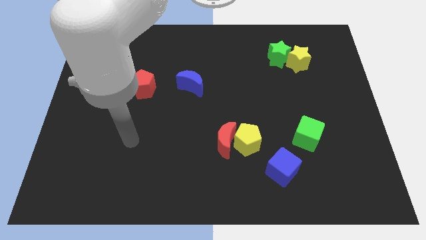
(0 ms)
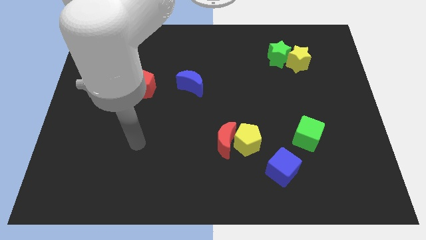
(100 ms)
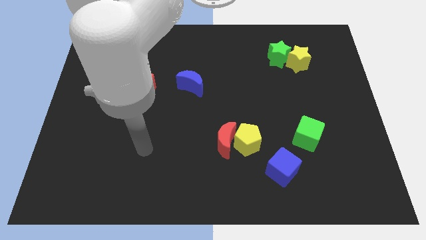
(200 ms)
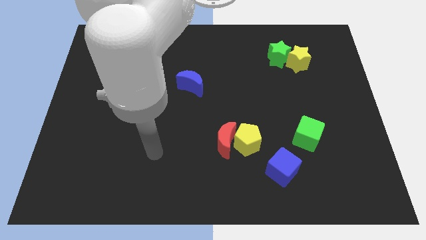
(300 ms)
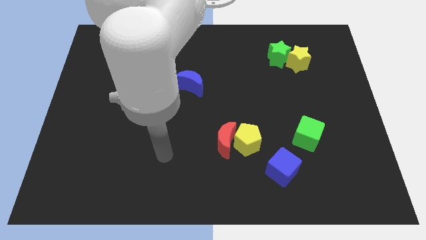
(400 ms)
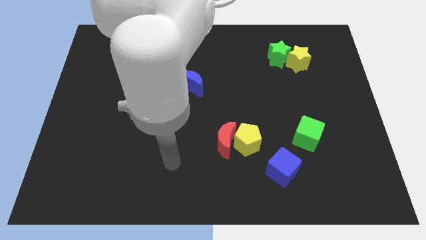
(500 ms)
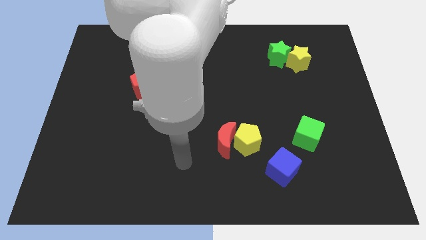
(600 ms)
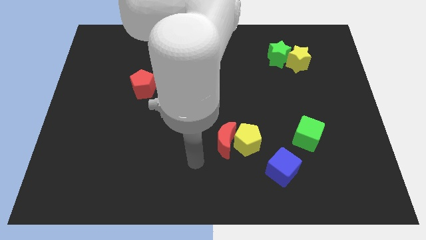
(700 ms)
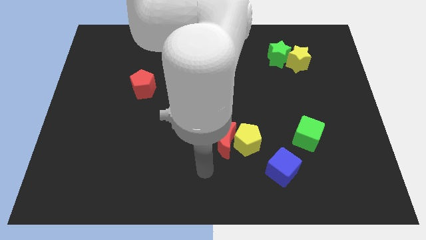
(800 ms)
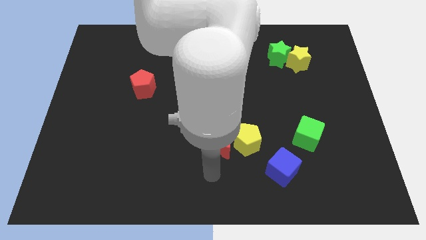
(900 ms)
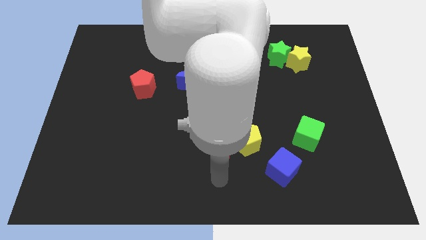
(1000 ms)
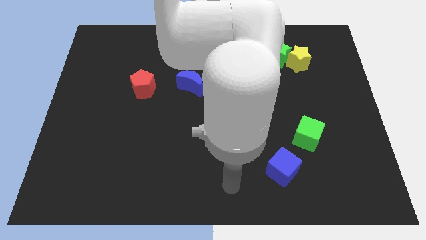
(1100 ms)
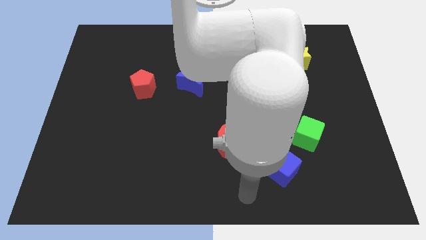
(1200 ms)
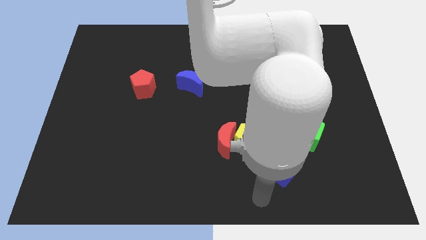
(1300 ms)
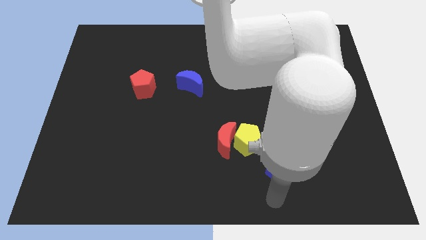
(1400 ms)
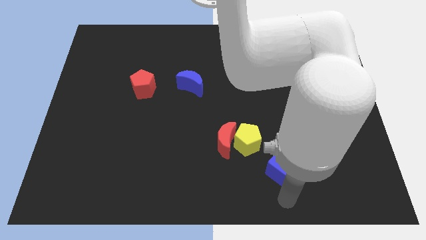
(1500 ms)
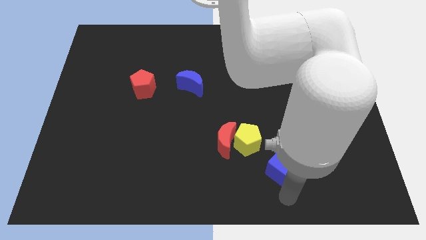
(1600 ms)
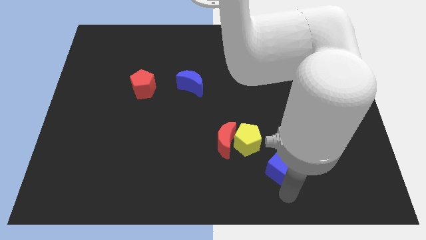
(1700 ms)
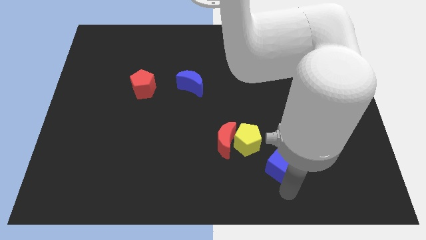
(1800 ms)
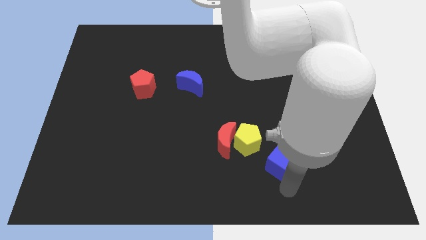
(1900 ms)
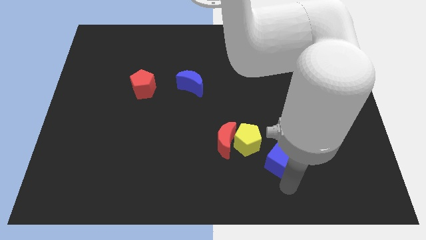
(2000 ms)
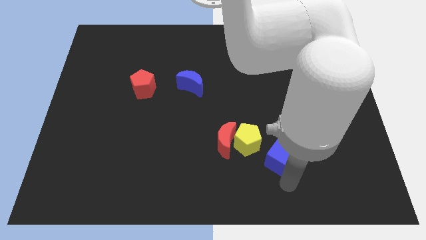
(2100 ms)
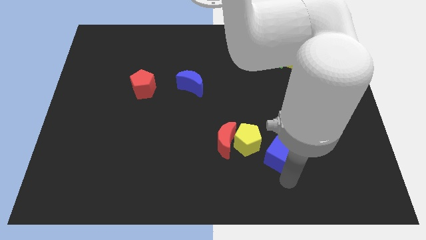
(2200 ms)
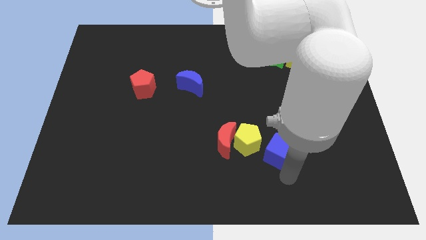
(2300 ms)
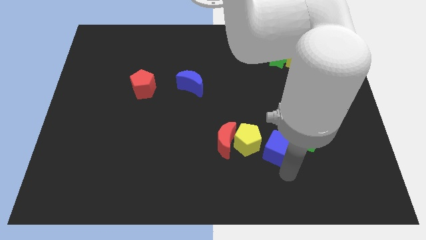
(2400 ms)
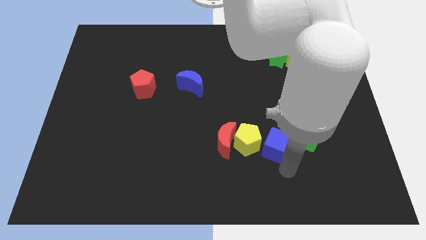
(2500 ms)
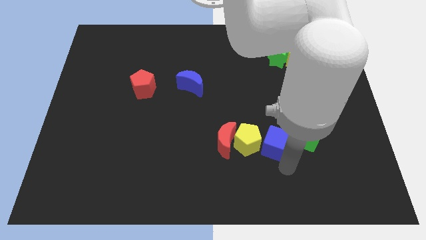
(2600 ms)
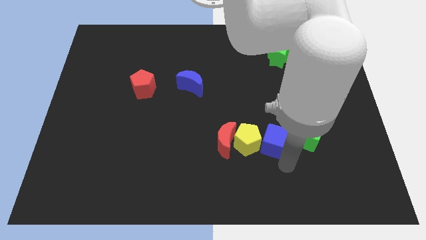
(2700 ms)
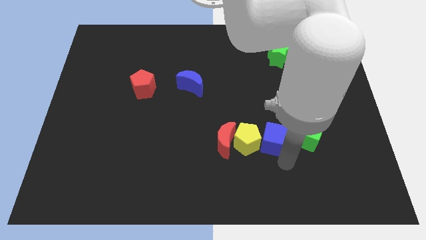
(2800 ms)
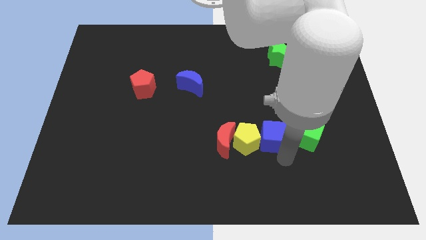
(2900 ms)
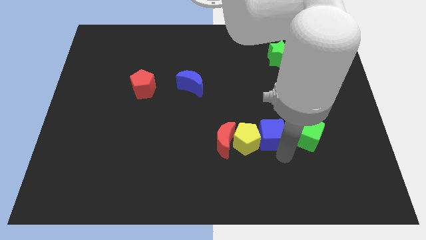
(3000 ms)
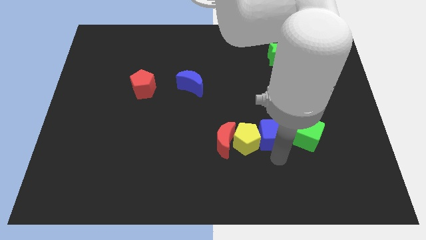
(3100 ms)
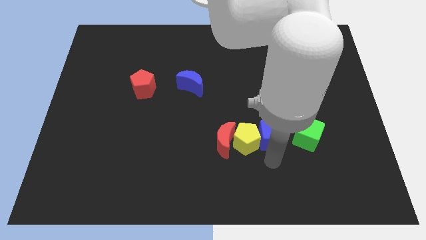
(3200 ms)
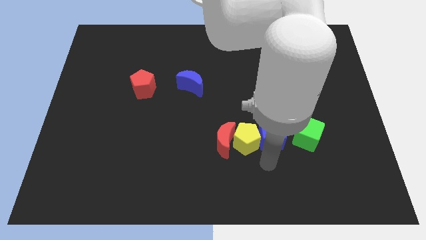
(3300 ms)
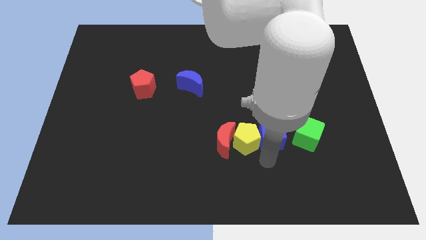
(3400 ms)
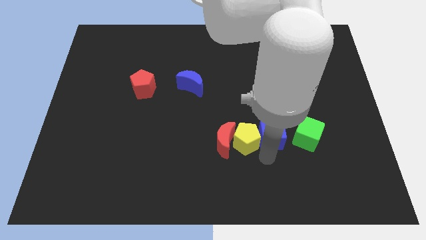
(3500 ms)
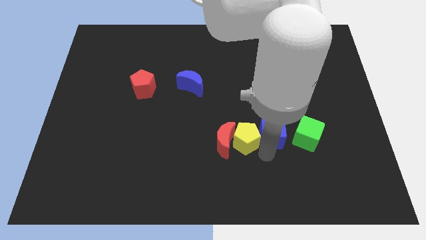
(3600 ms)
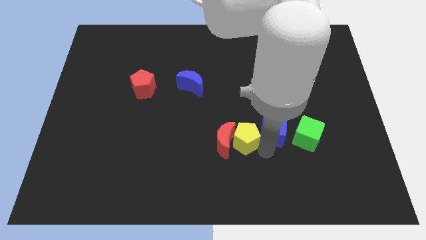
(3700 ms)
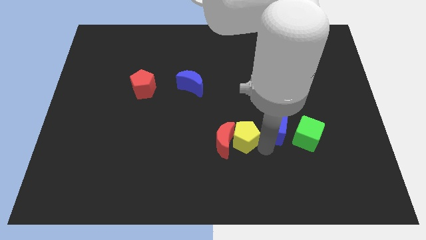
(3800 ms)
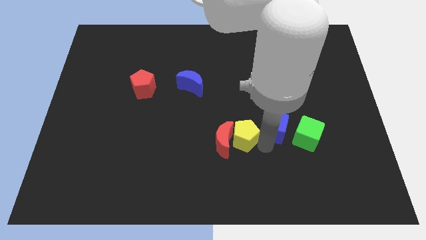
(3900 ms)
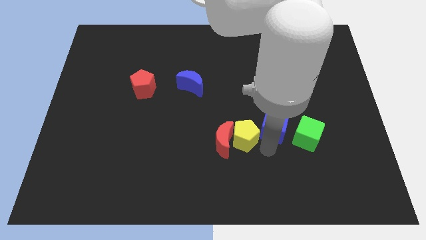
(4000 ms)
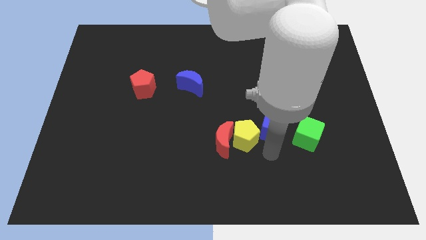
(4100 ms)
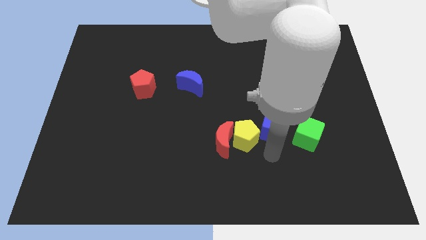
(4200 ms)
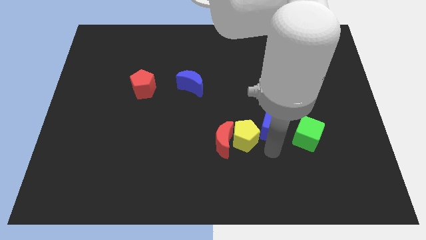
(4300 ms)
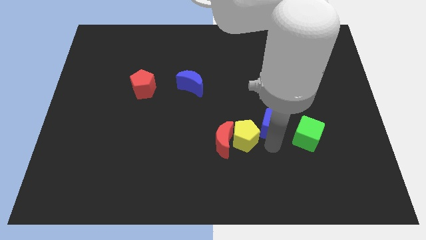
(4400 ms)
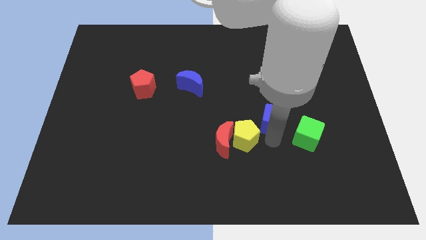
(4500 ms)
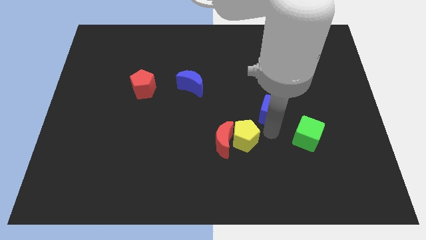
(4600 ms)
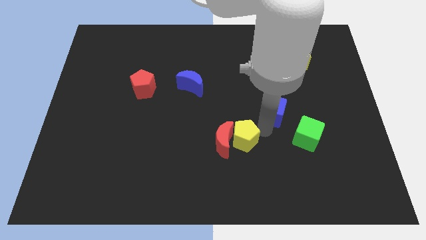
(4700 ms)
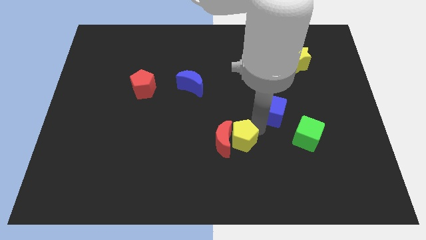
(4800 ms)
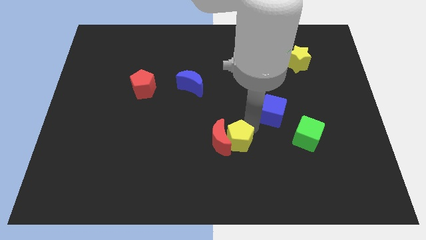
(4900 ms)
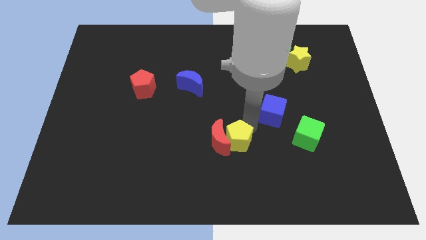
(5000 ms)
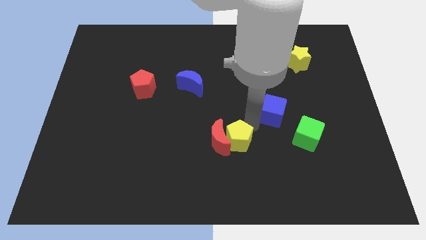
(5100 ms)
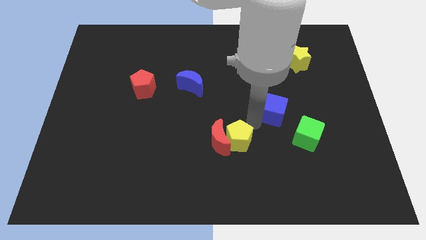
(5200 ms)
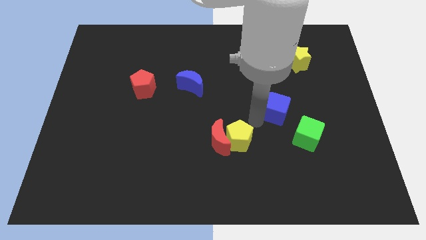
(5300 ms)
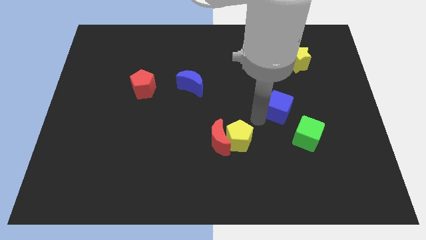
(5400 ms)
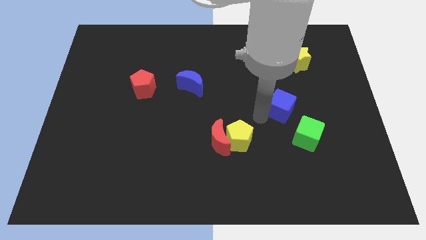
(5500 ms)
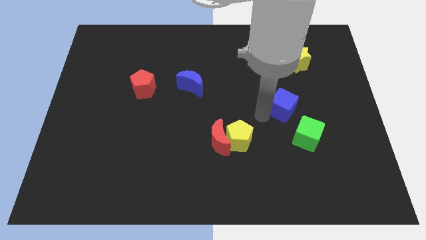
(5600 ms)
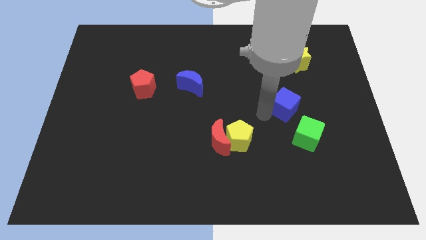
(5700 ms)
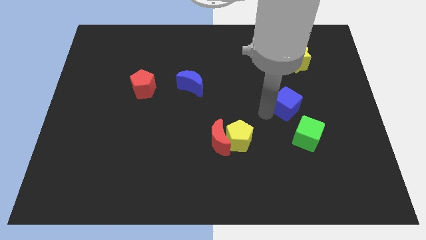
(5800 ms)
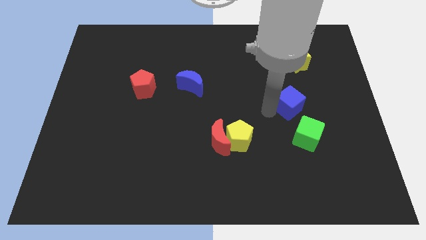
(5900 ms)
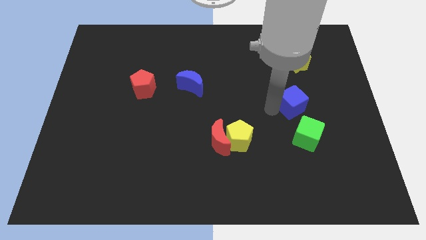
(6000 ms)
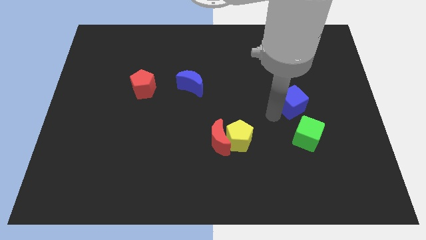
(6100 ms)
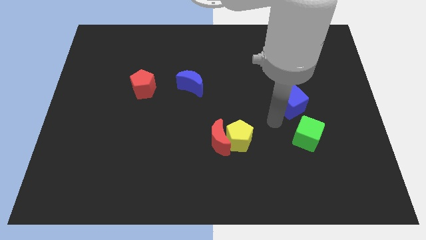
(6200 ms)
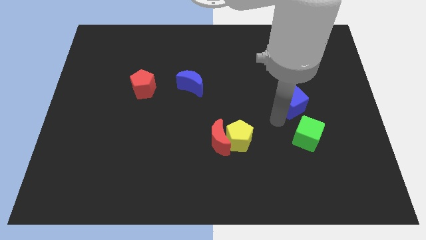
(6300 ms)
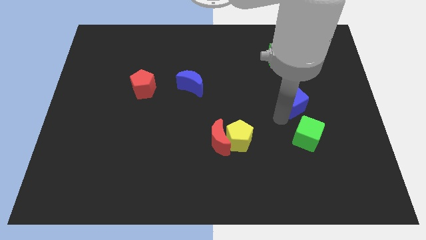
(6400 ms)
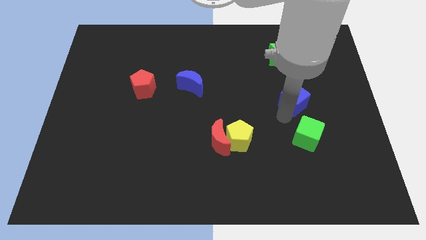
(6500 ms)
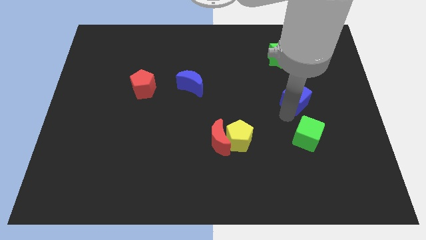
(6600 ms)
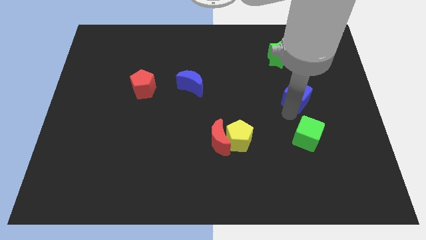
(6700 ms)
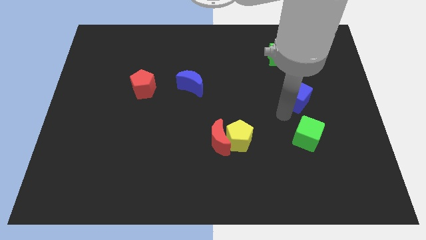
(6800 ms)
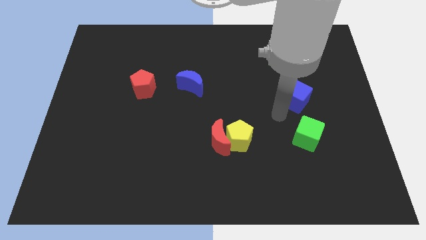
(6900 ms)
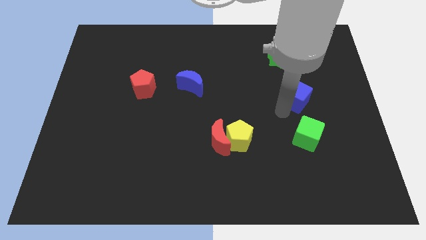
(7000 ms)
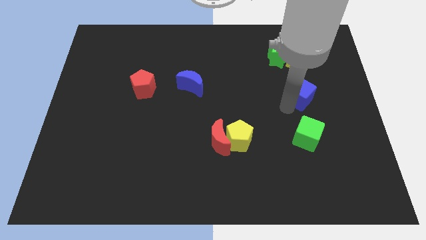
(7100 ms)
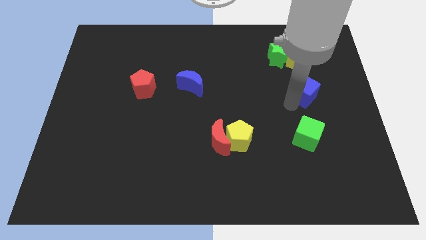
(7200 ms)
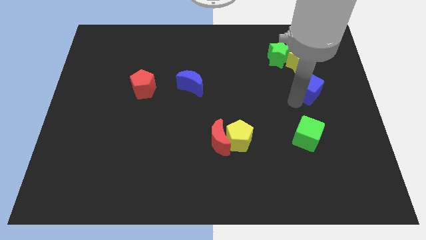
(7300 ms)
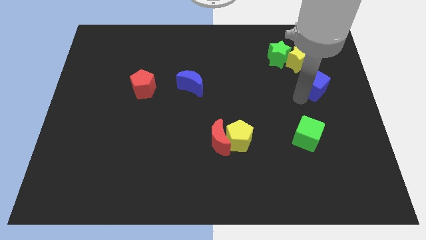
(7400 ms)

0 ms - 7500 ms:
move the blue cube to the bottom right side of the yellow star
